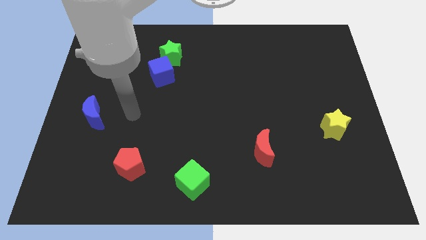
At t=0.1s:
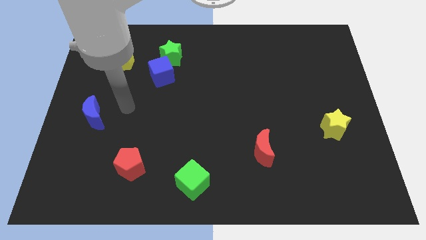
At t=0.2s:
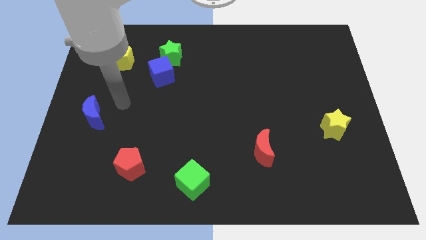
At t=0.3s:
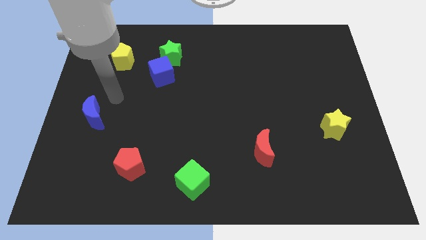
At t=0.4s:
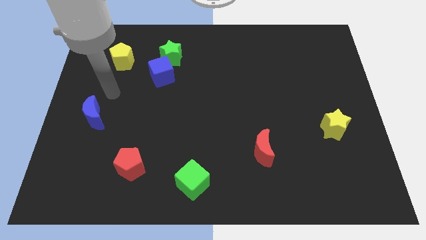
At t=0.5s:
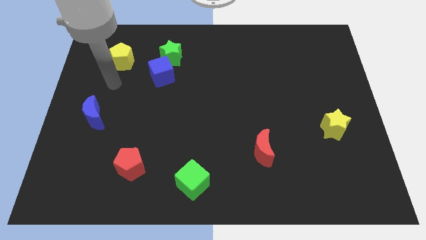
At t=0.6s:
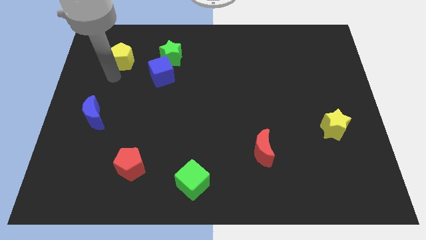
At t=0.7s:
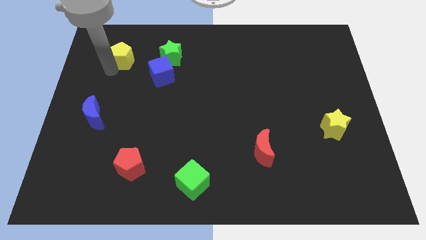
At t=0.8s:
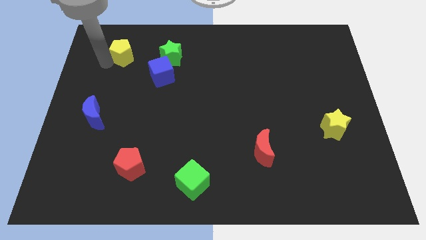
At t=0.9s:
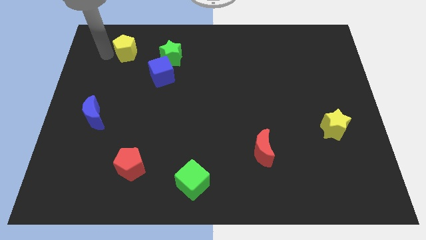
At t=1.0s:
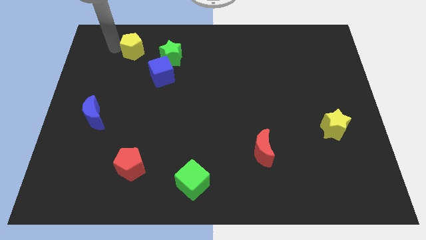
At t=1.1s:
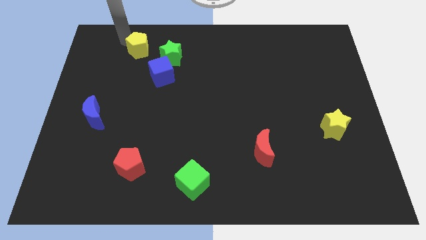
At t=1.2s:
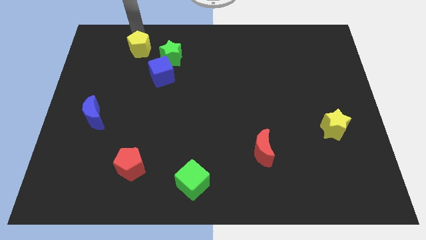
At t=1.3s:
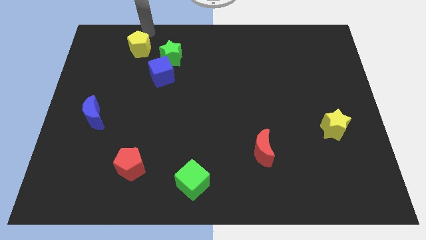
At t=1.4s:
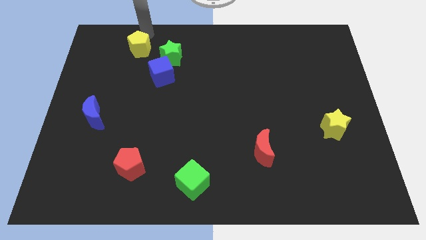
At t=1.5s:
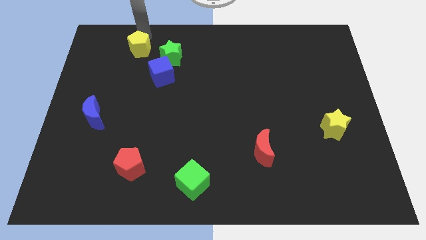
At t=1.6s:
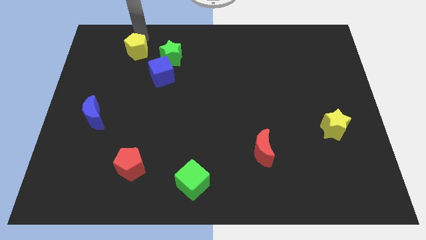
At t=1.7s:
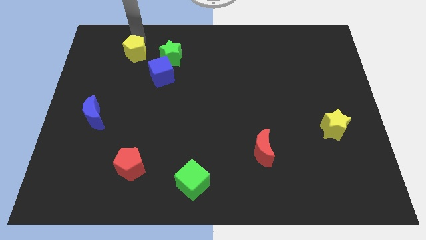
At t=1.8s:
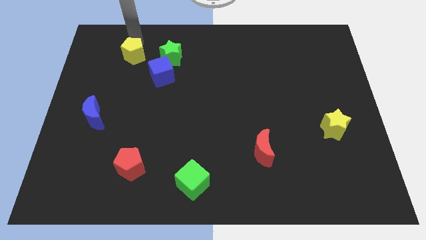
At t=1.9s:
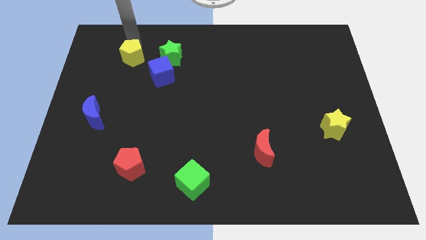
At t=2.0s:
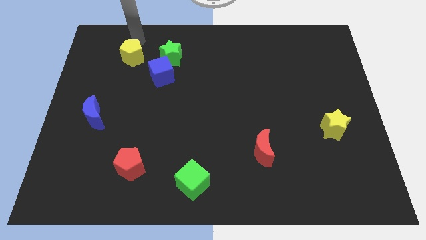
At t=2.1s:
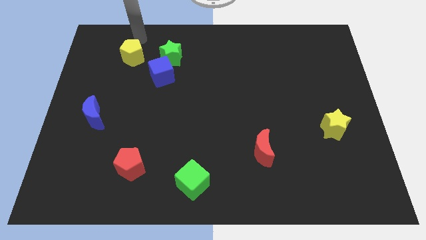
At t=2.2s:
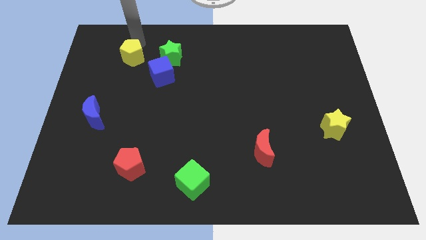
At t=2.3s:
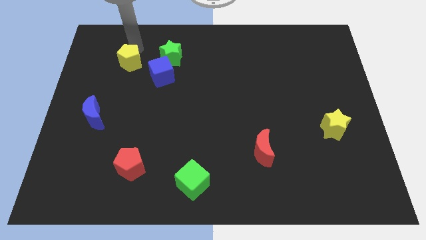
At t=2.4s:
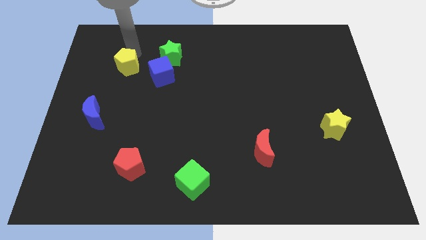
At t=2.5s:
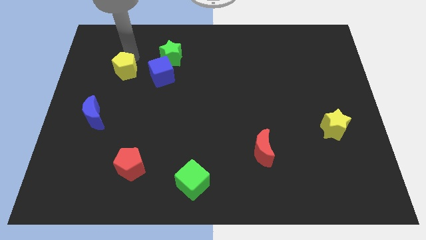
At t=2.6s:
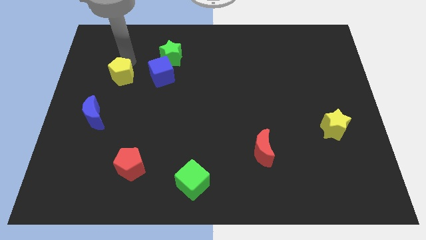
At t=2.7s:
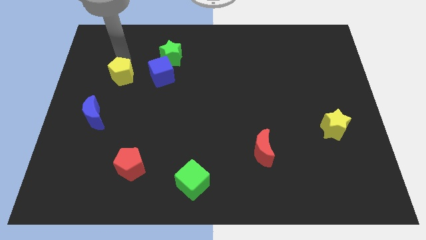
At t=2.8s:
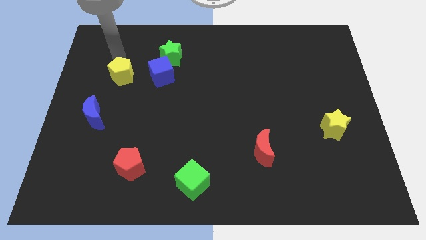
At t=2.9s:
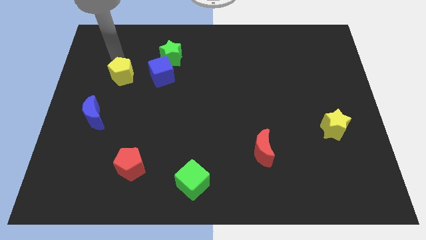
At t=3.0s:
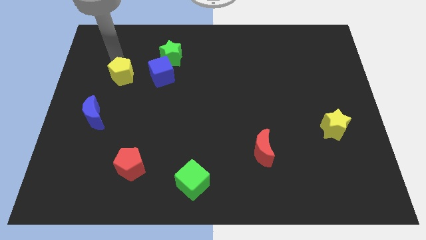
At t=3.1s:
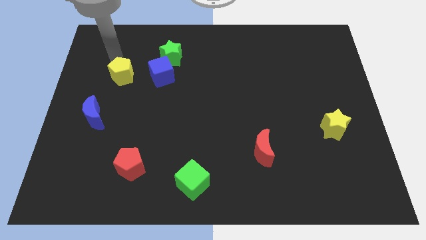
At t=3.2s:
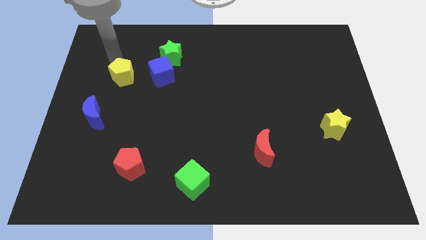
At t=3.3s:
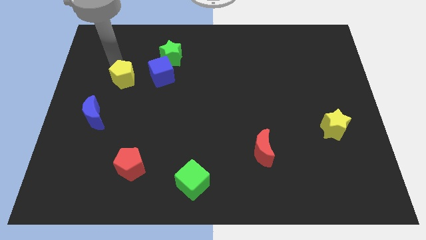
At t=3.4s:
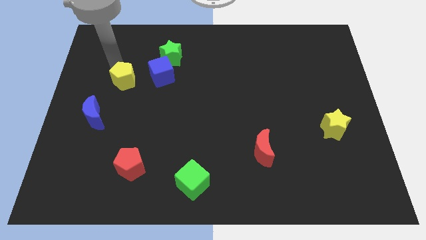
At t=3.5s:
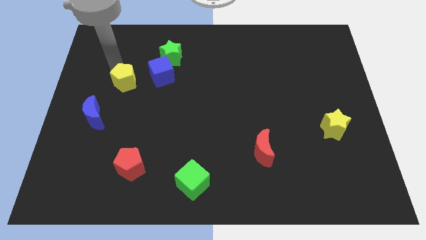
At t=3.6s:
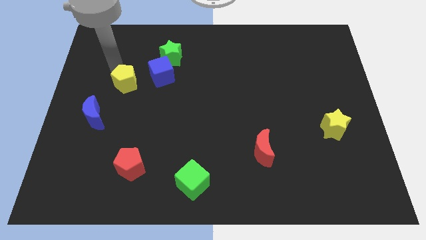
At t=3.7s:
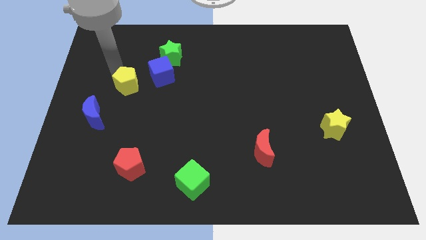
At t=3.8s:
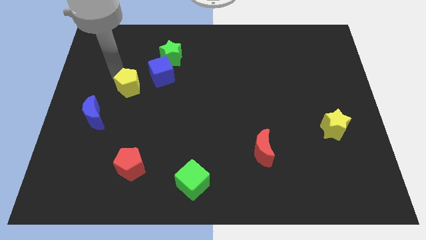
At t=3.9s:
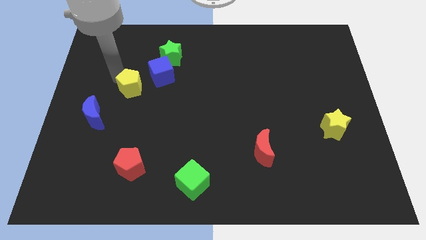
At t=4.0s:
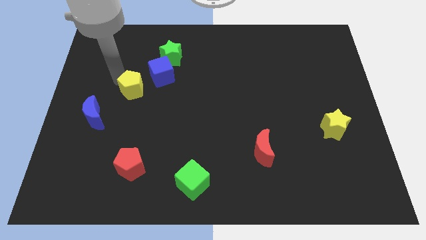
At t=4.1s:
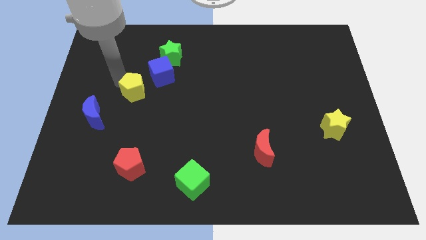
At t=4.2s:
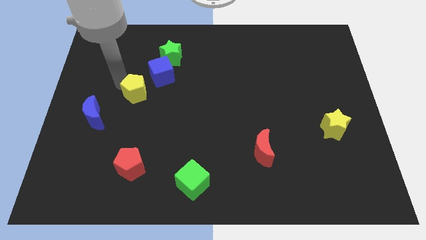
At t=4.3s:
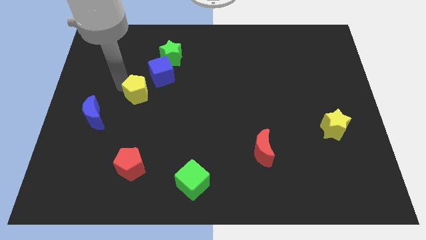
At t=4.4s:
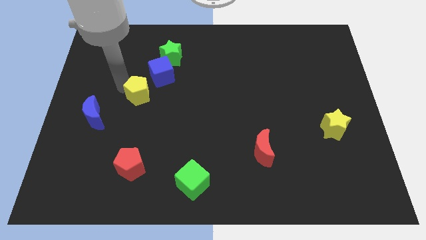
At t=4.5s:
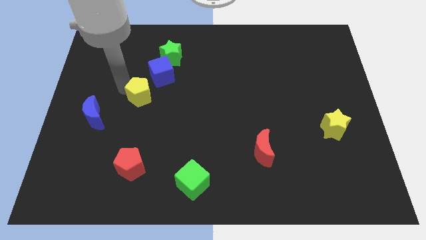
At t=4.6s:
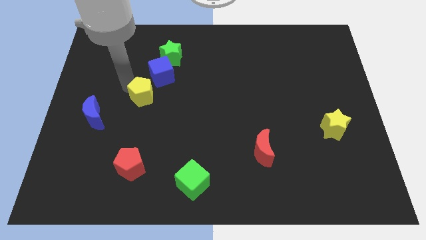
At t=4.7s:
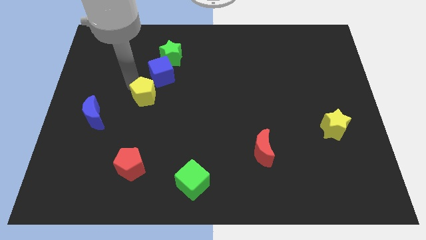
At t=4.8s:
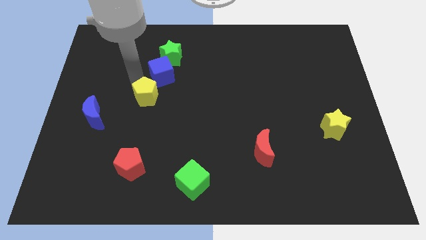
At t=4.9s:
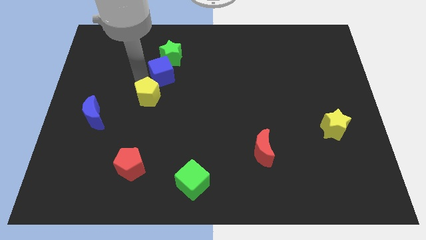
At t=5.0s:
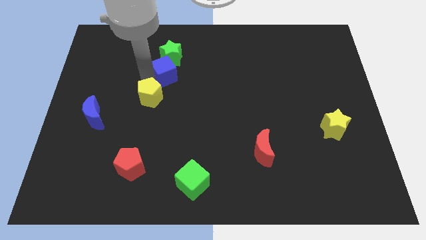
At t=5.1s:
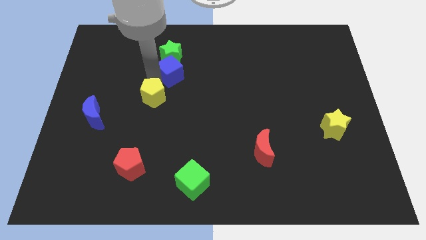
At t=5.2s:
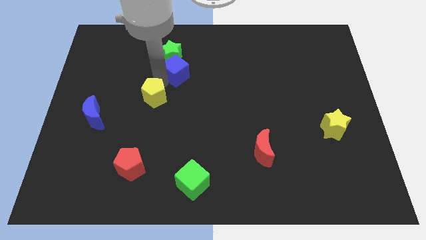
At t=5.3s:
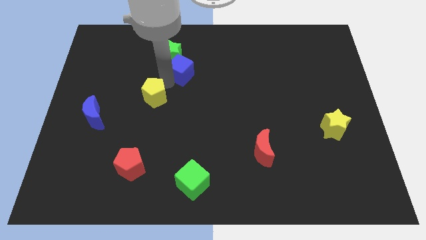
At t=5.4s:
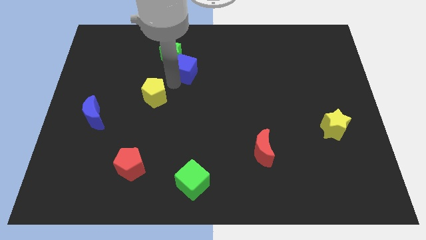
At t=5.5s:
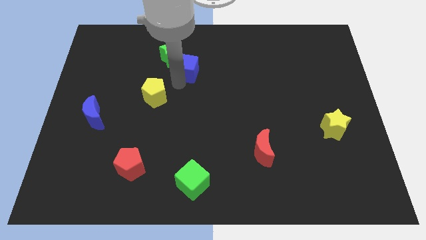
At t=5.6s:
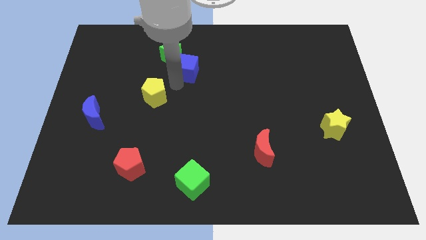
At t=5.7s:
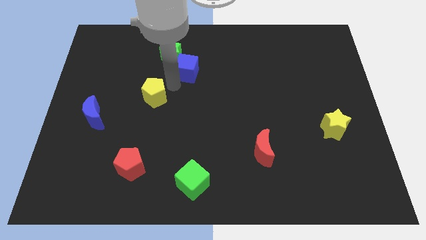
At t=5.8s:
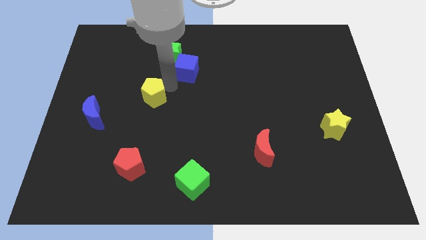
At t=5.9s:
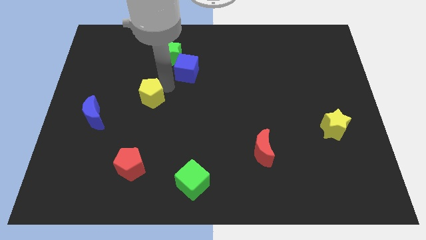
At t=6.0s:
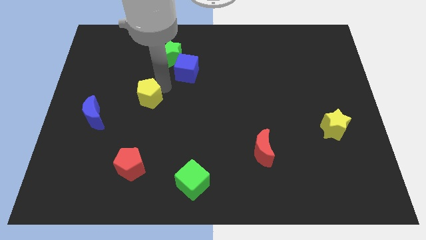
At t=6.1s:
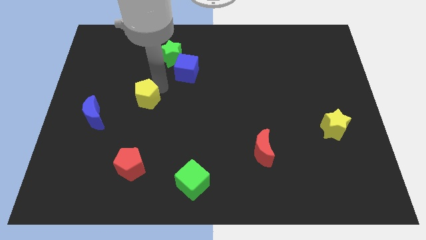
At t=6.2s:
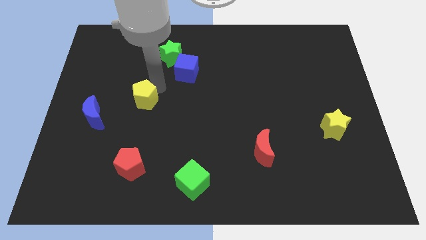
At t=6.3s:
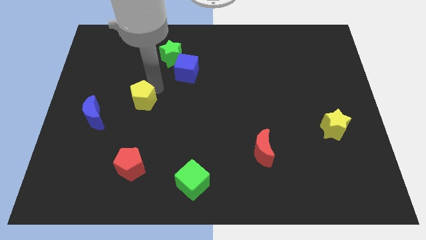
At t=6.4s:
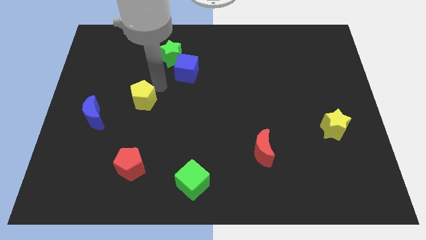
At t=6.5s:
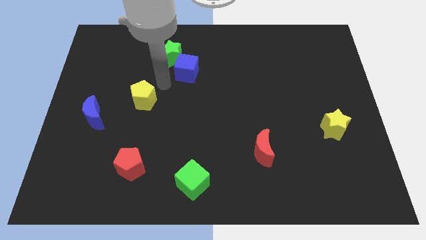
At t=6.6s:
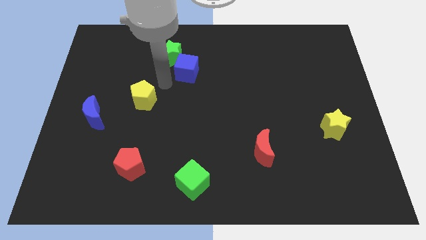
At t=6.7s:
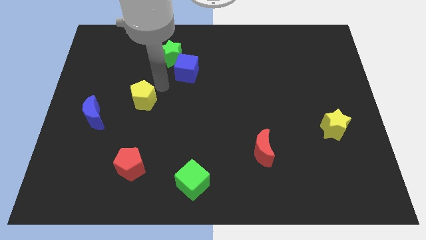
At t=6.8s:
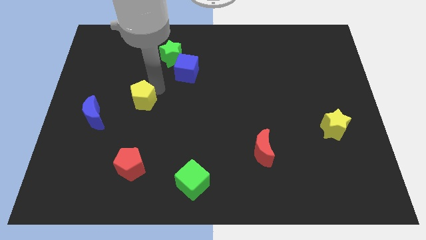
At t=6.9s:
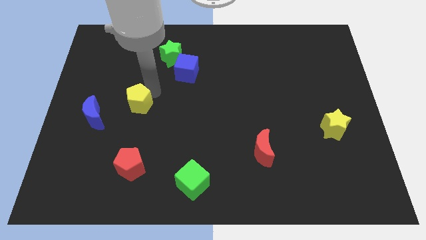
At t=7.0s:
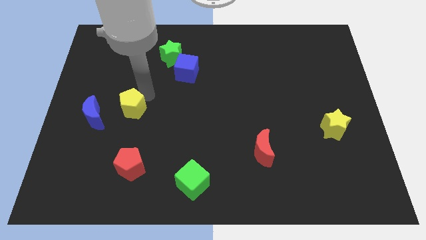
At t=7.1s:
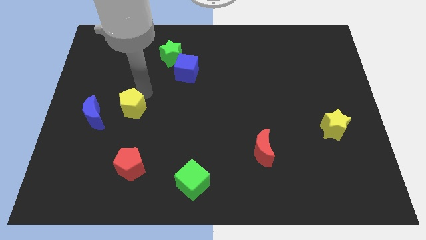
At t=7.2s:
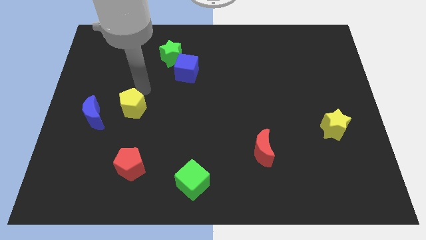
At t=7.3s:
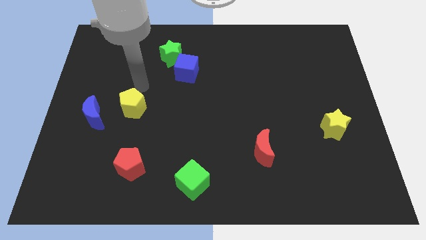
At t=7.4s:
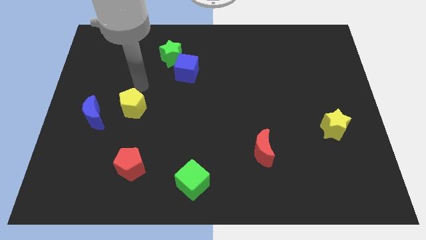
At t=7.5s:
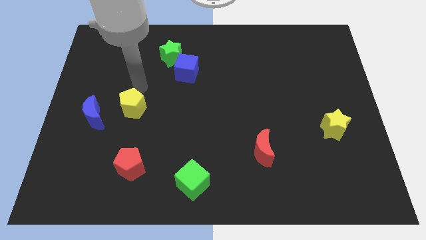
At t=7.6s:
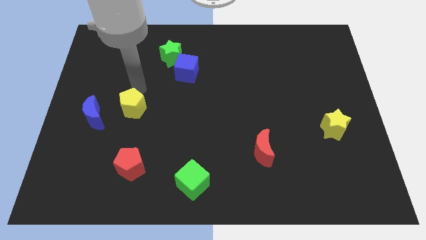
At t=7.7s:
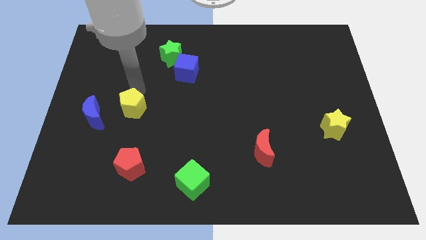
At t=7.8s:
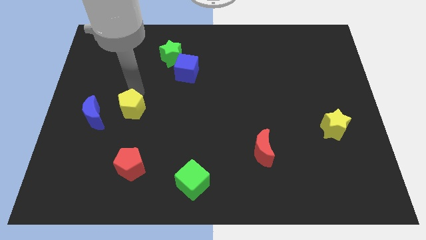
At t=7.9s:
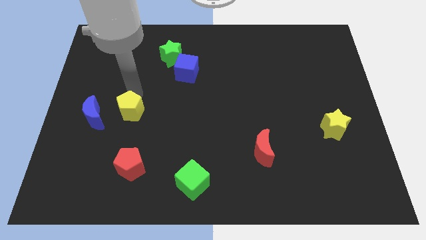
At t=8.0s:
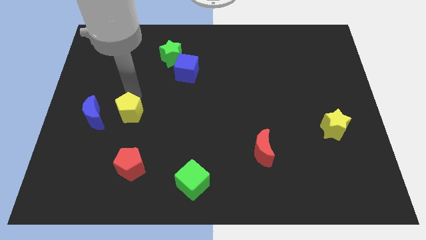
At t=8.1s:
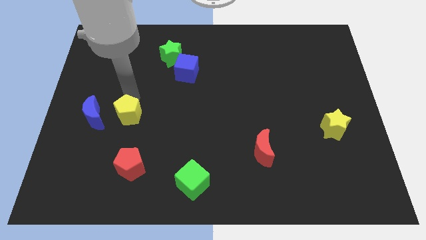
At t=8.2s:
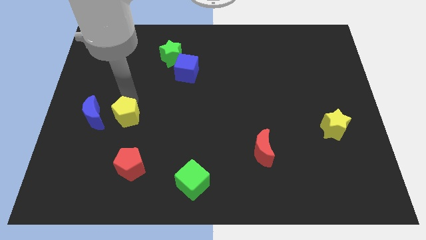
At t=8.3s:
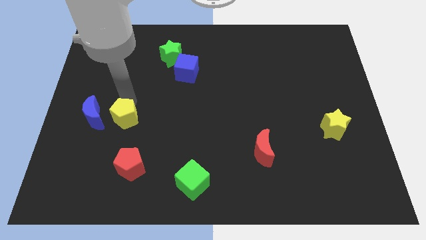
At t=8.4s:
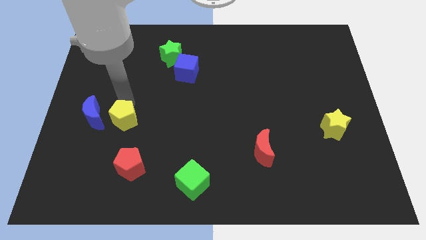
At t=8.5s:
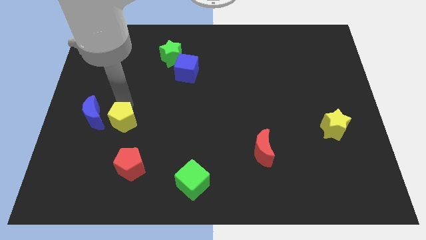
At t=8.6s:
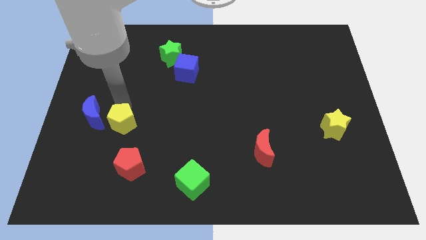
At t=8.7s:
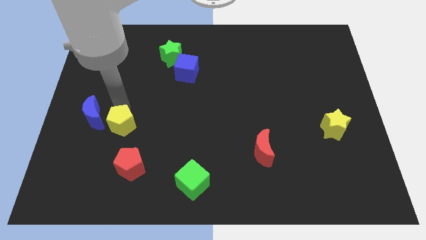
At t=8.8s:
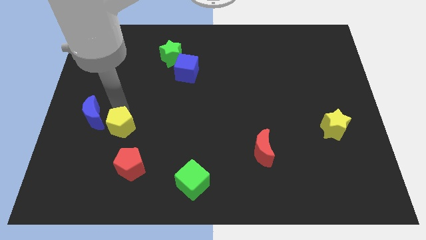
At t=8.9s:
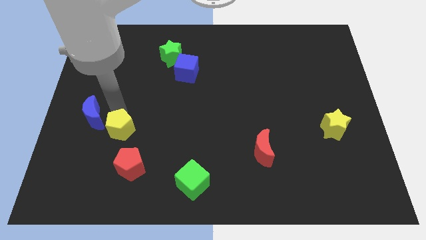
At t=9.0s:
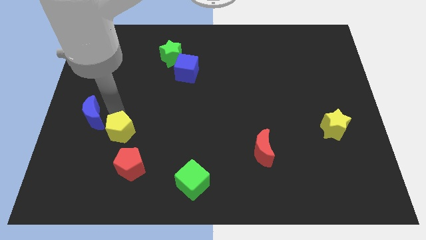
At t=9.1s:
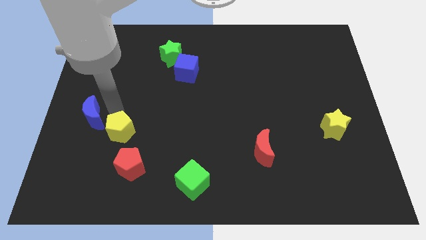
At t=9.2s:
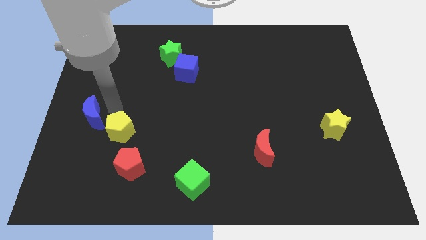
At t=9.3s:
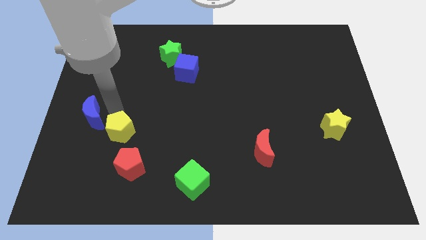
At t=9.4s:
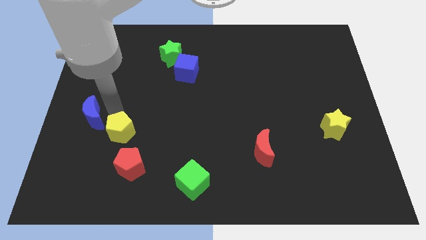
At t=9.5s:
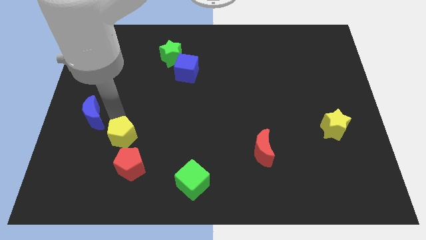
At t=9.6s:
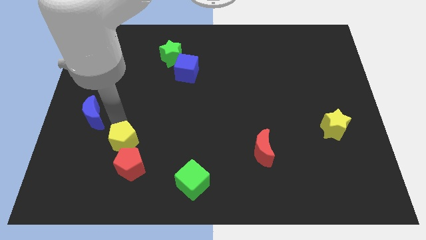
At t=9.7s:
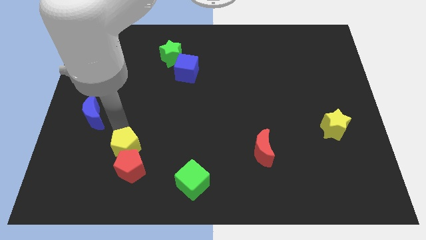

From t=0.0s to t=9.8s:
put the yellow pentagon to the red pentagon
